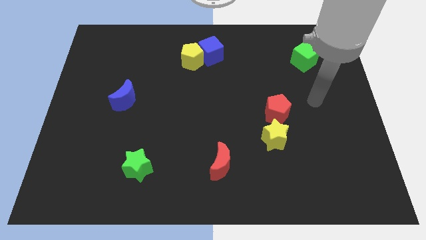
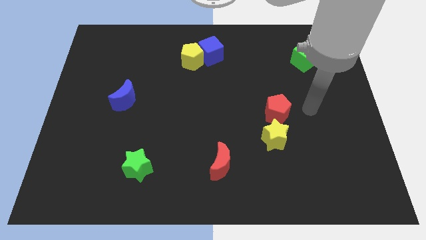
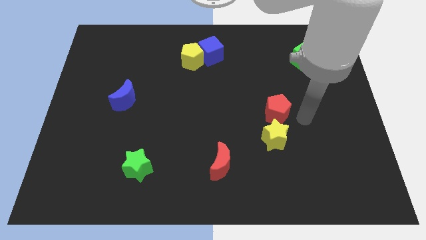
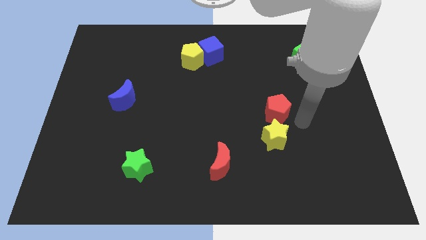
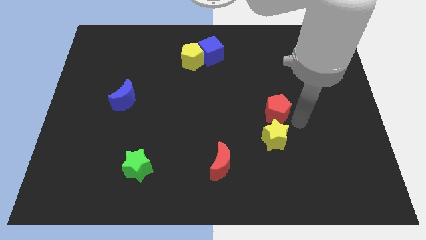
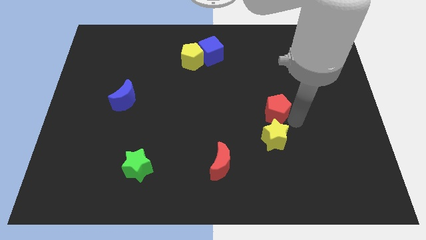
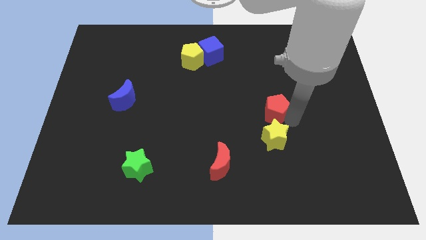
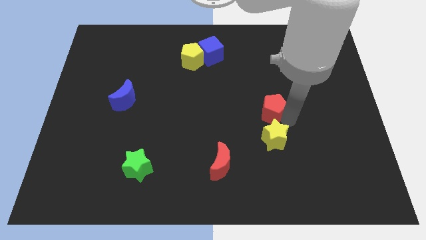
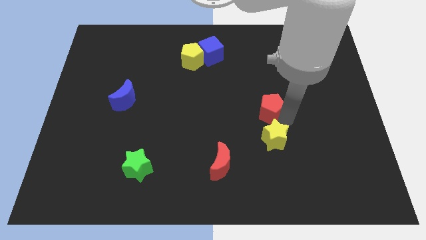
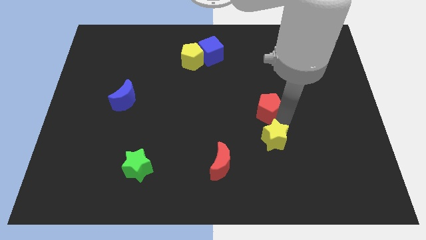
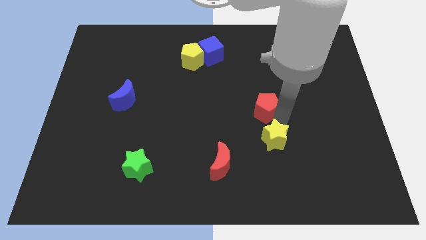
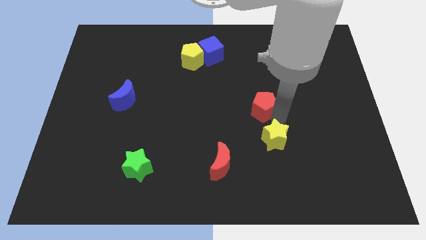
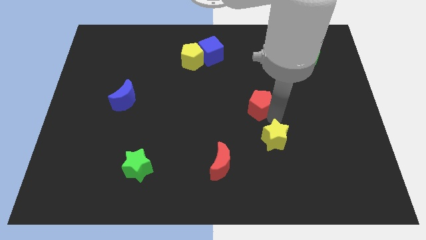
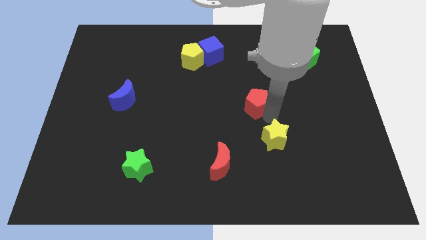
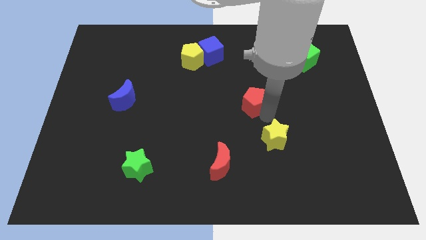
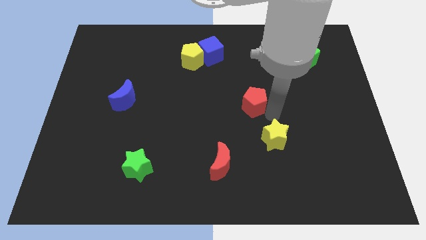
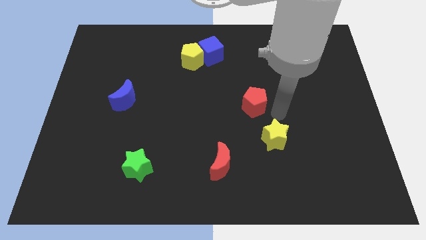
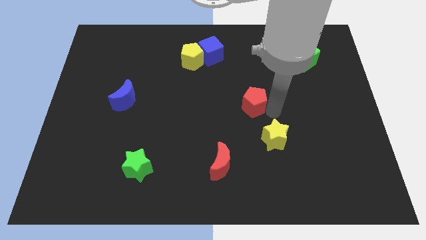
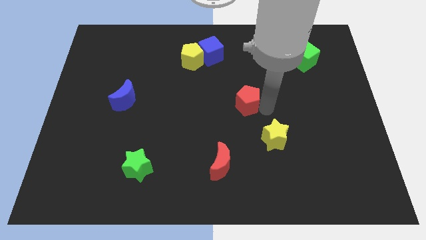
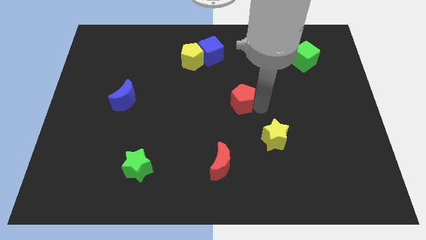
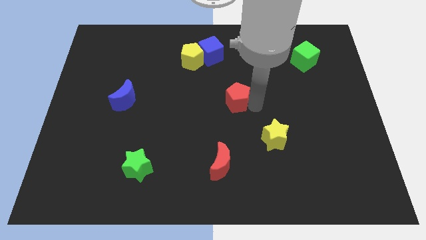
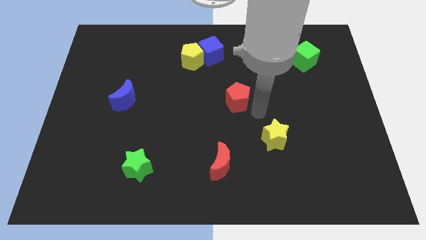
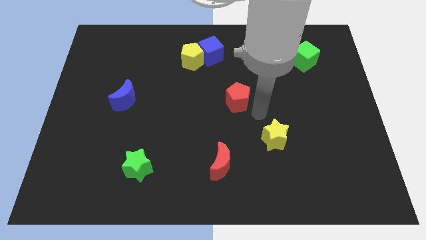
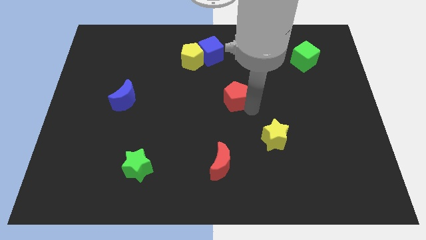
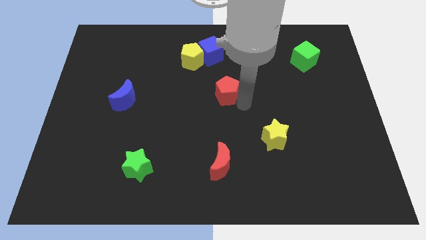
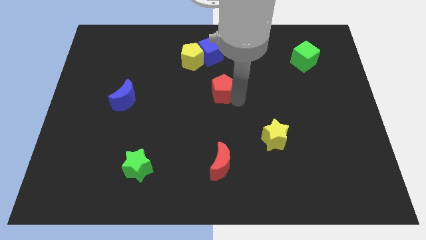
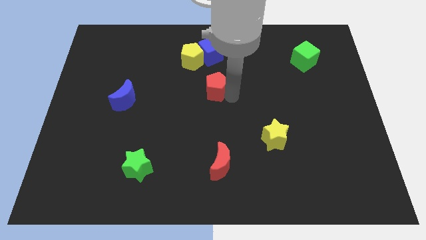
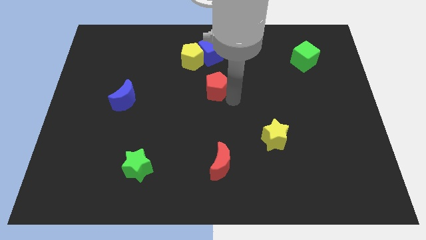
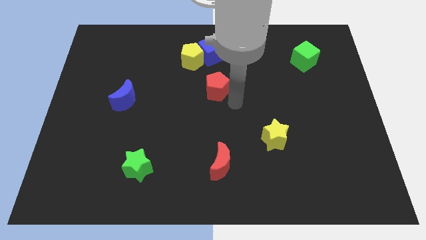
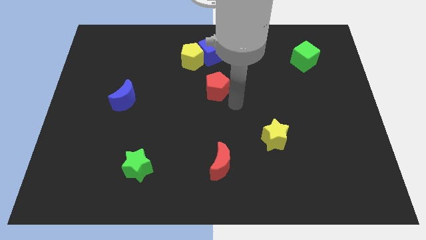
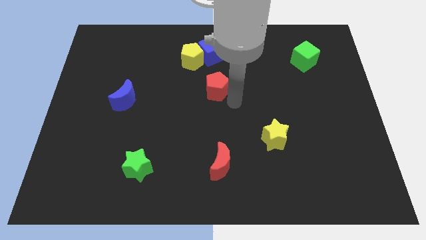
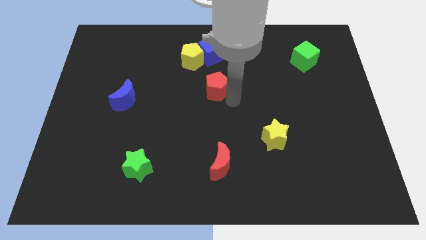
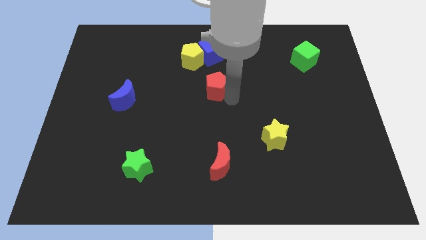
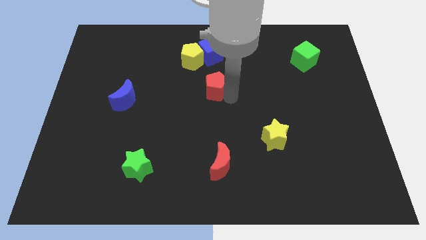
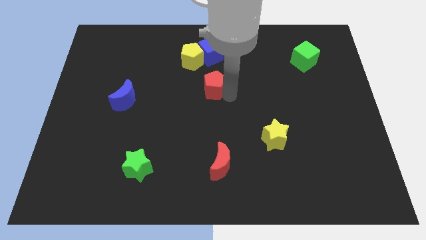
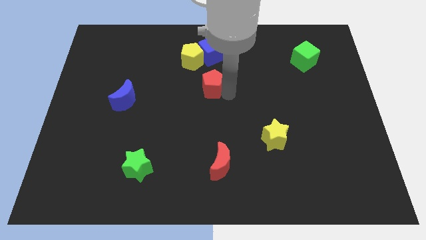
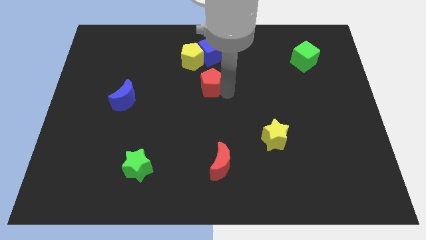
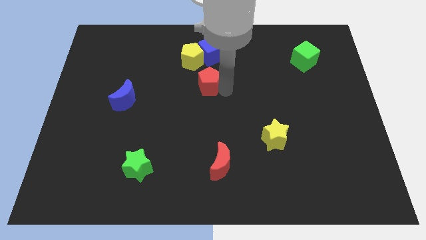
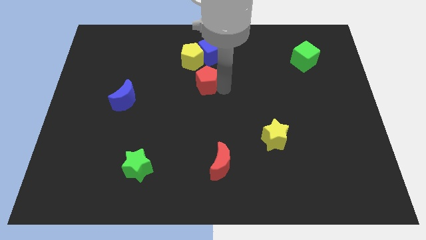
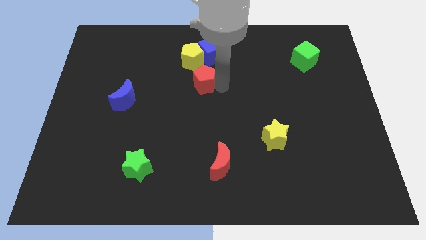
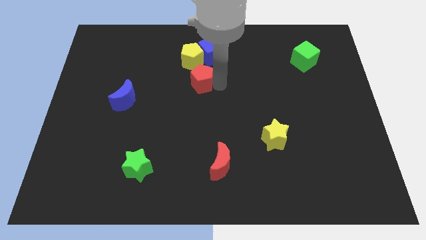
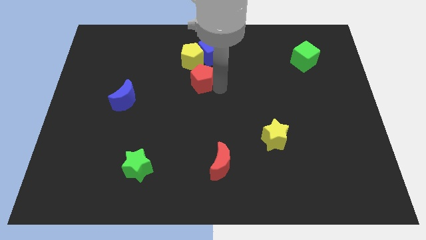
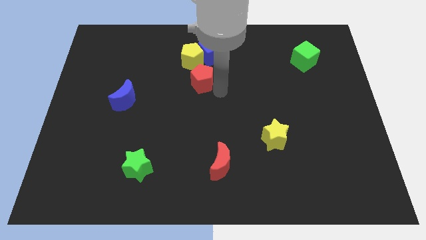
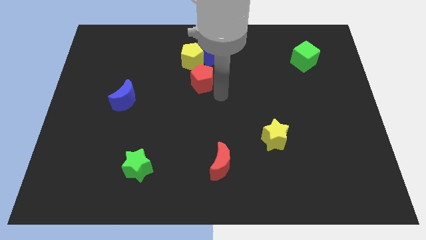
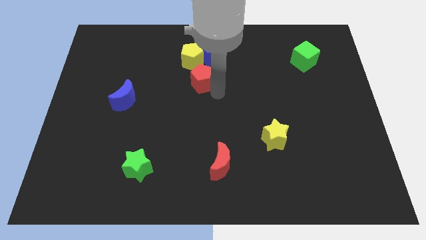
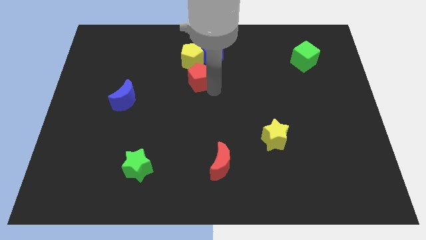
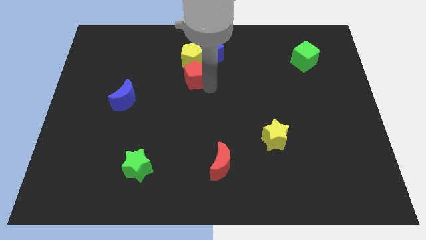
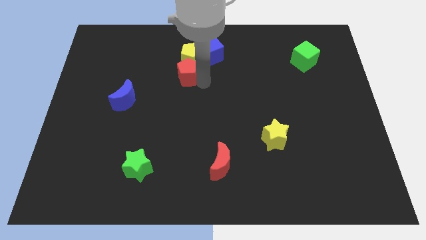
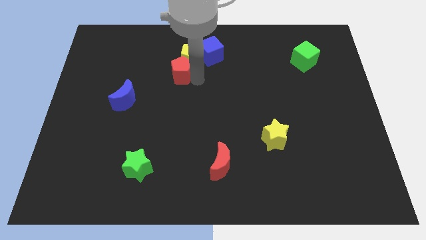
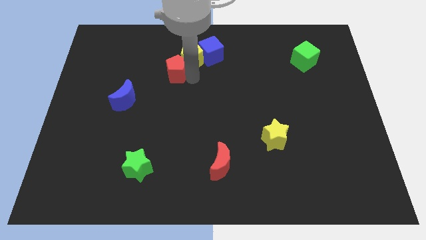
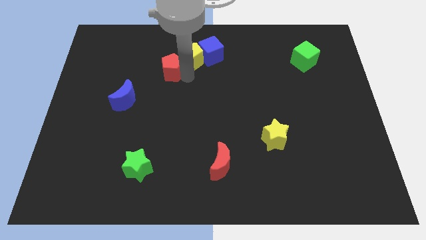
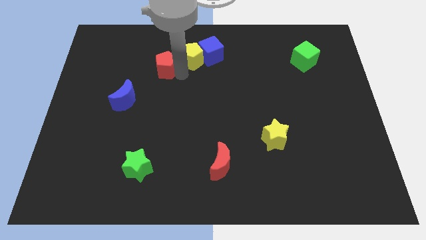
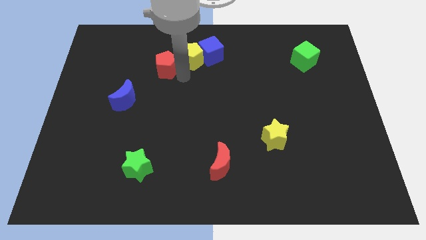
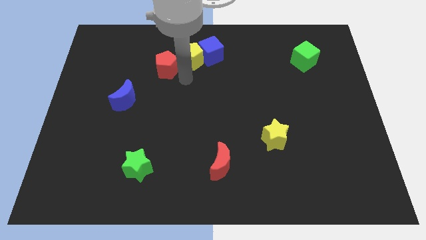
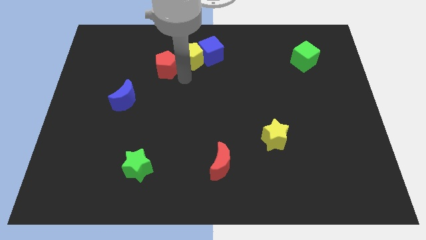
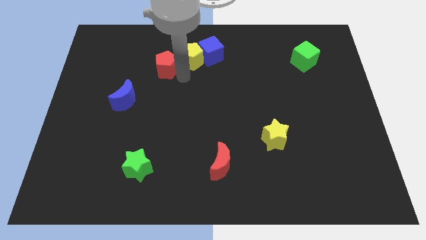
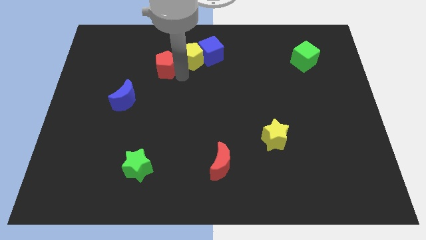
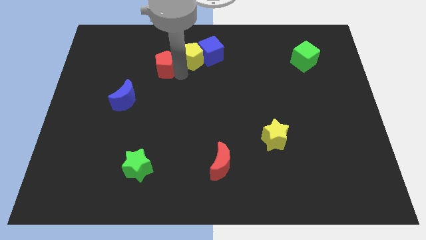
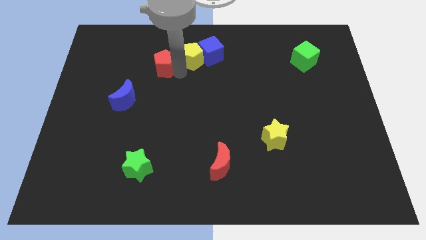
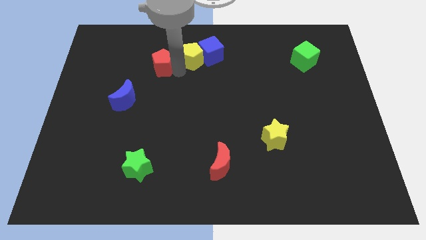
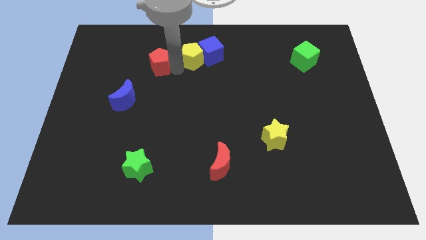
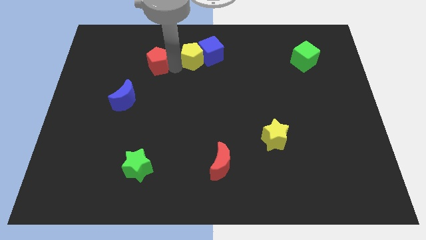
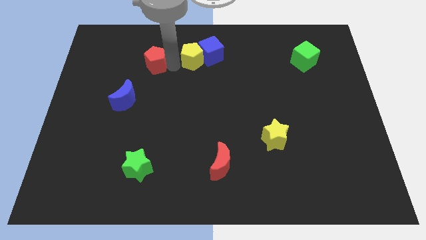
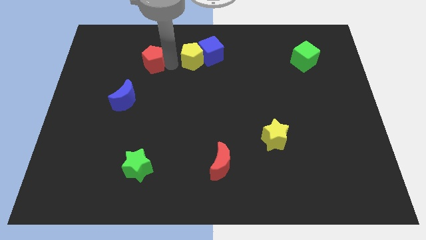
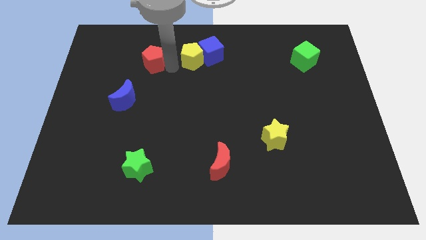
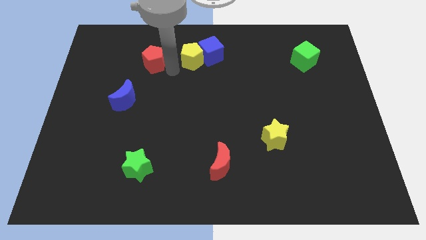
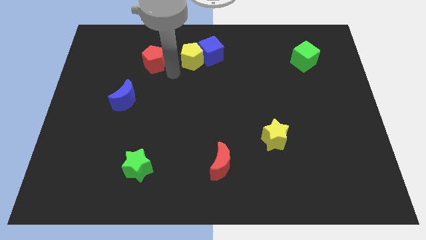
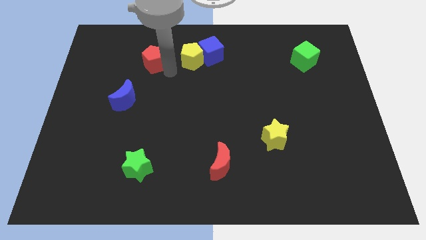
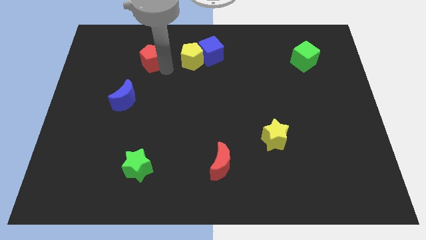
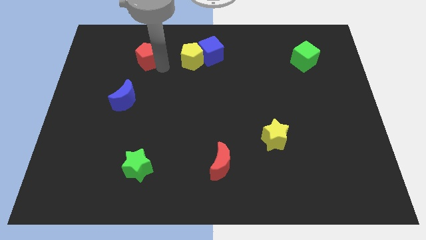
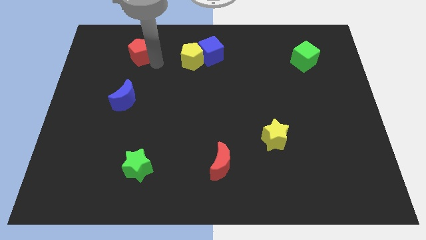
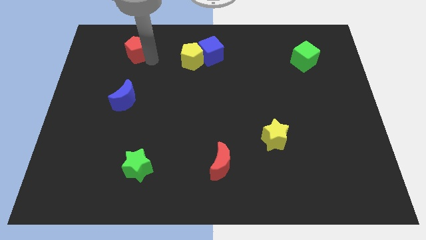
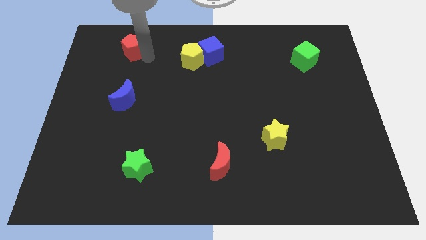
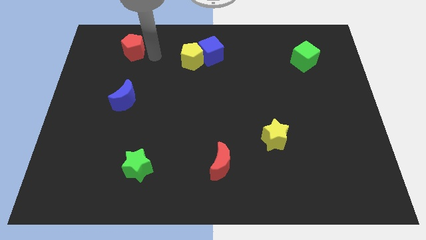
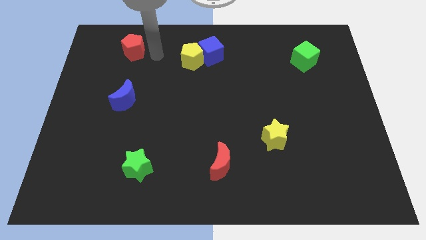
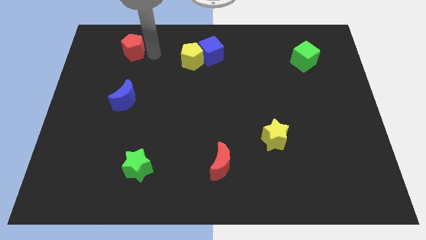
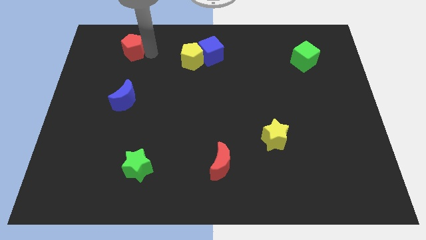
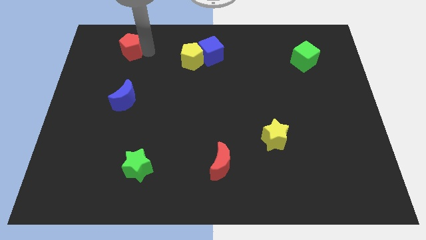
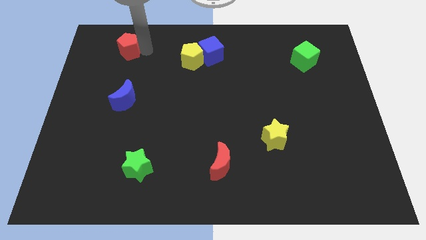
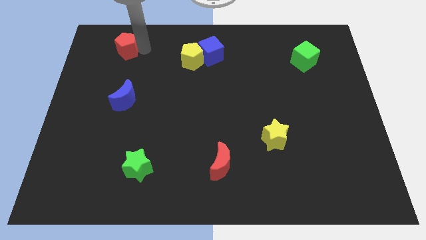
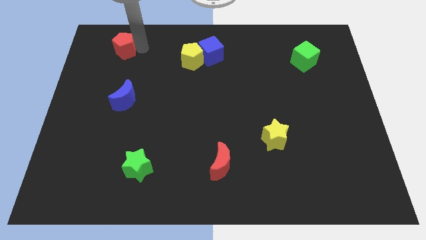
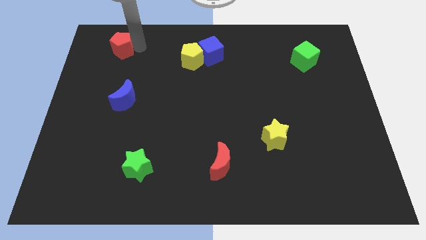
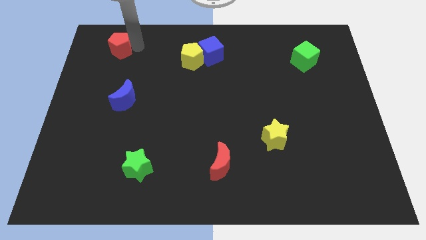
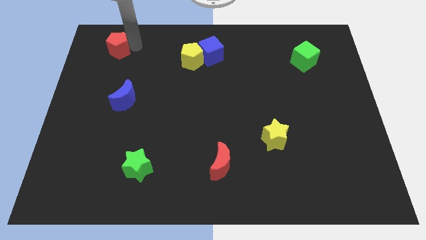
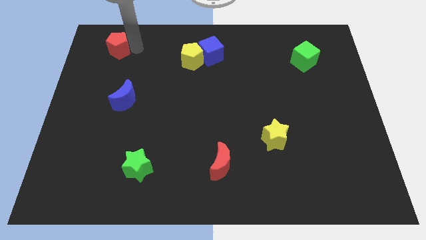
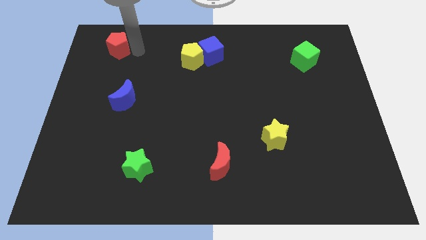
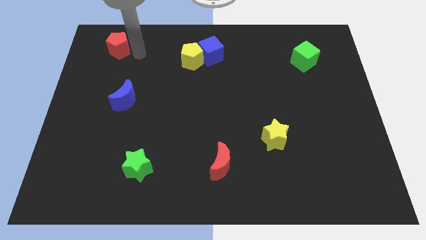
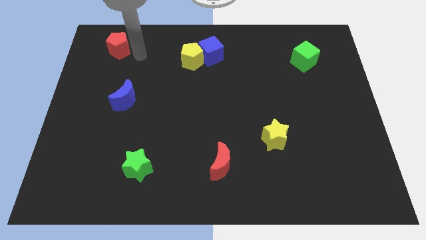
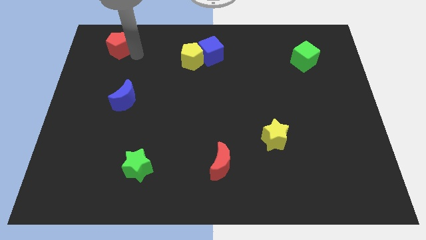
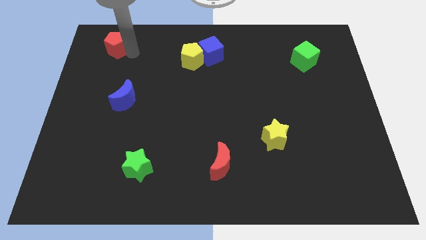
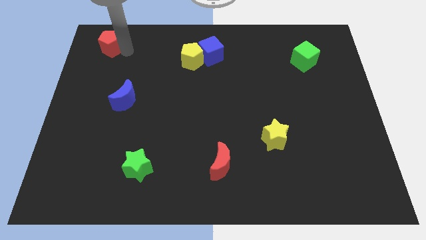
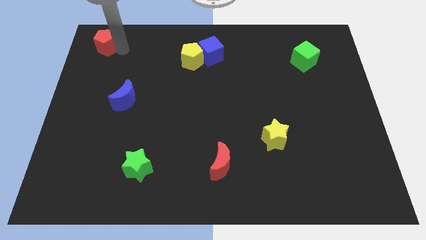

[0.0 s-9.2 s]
slide the red pentagon to the upper left corner
